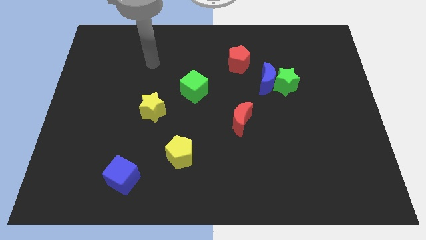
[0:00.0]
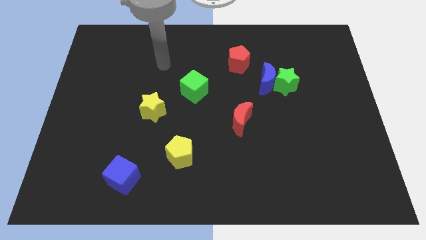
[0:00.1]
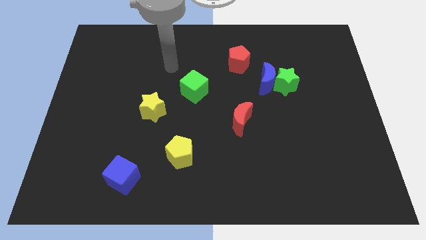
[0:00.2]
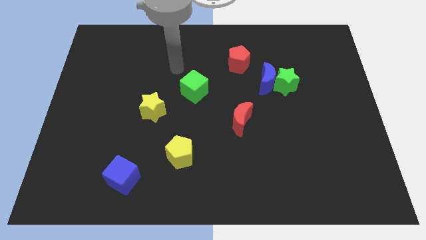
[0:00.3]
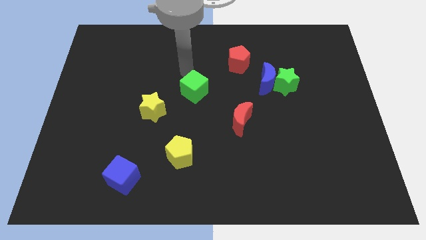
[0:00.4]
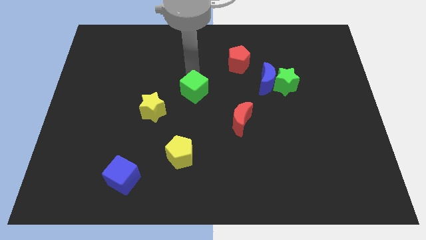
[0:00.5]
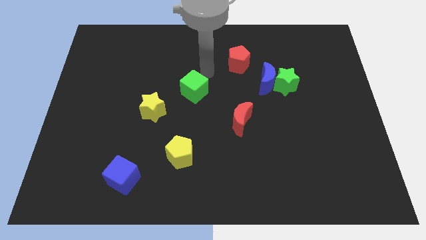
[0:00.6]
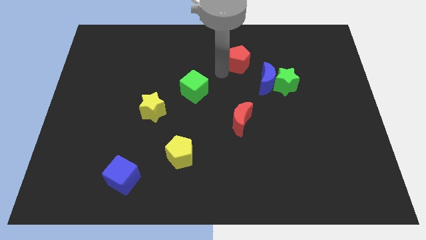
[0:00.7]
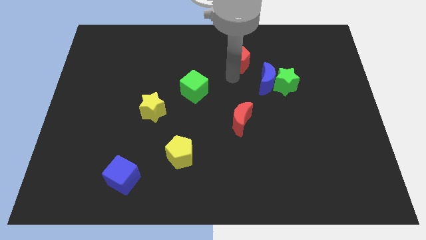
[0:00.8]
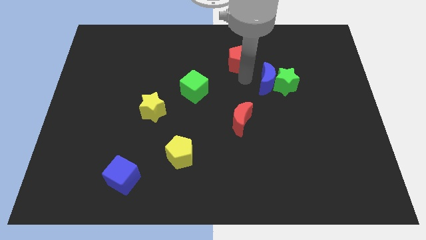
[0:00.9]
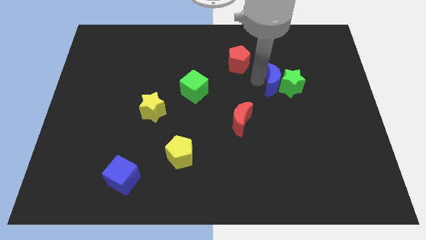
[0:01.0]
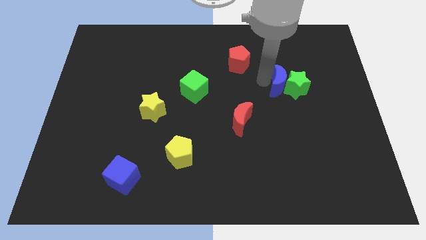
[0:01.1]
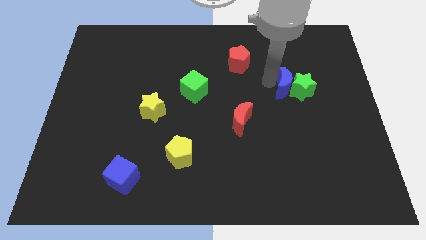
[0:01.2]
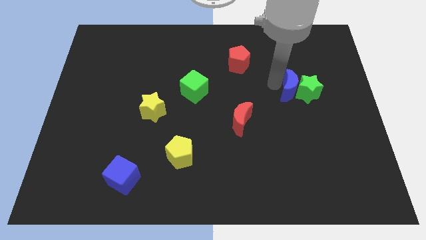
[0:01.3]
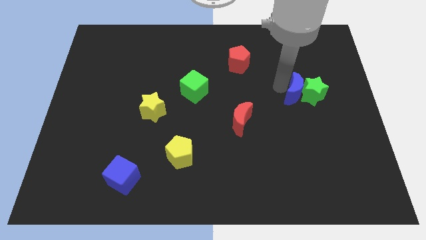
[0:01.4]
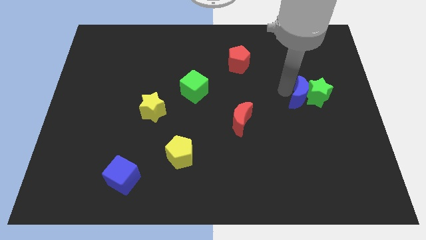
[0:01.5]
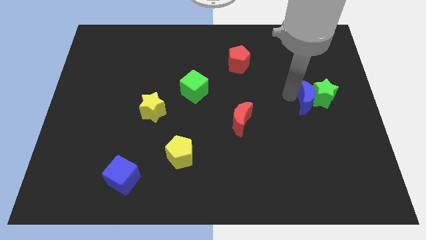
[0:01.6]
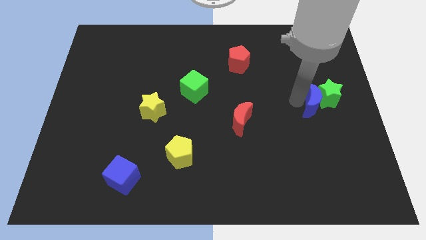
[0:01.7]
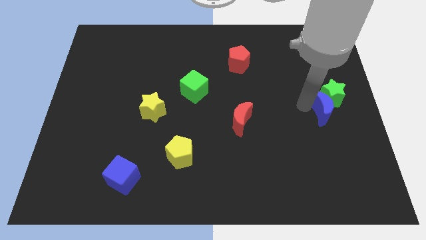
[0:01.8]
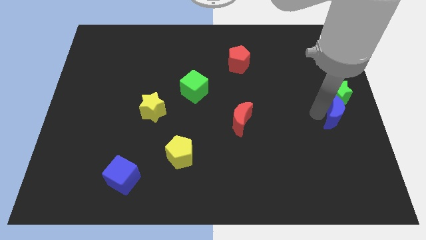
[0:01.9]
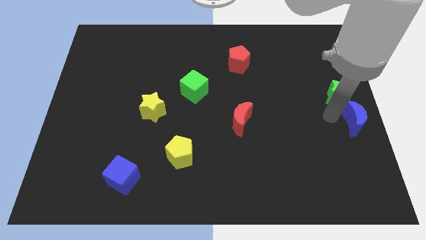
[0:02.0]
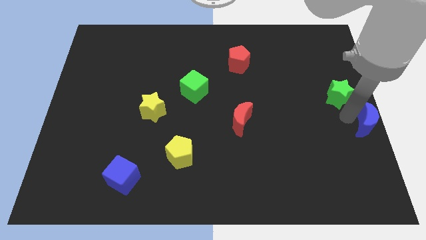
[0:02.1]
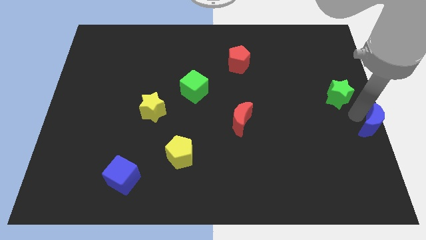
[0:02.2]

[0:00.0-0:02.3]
pull the green star apart from the blue moon

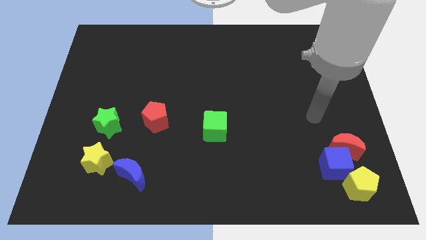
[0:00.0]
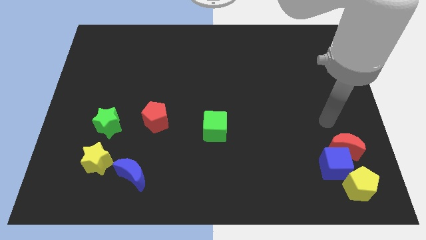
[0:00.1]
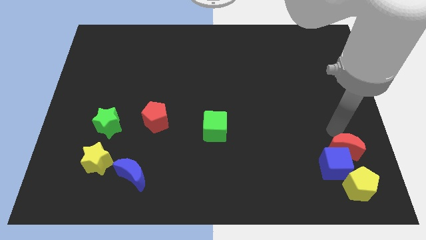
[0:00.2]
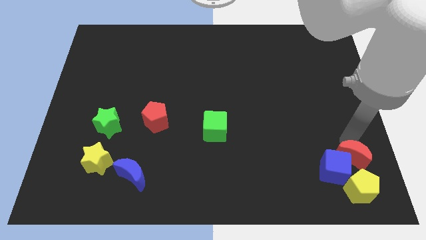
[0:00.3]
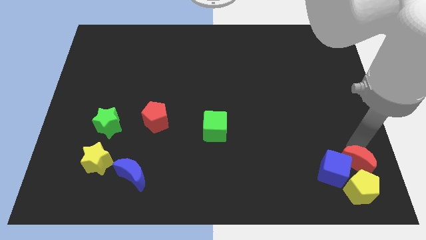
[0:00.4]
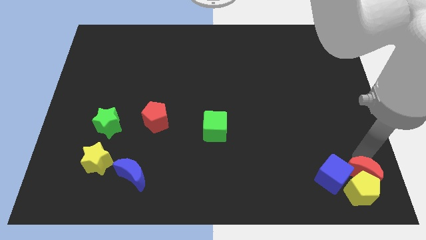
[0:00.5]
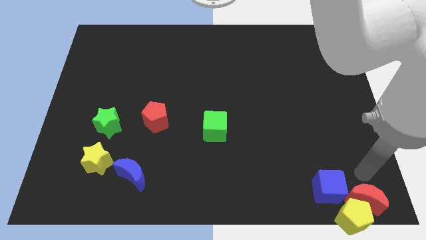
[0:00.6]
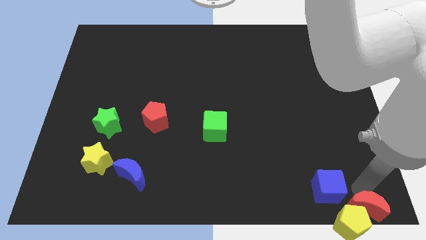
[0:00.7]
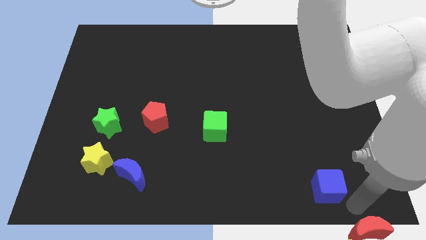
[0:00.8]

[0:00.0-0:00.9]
pull the blue cube apart from the red moon and yellow pentagon

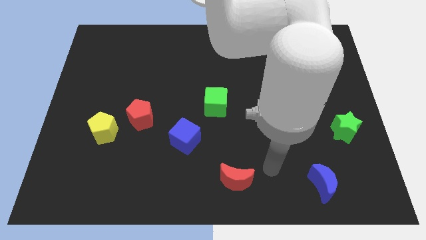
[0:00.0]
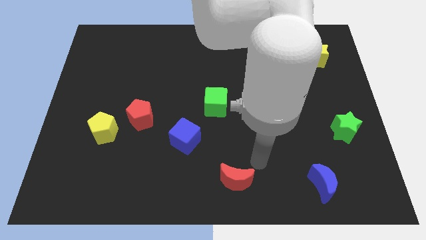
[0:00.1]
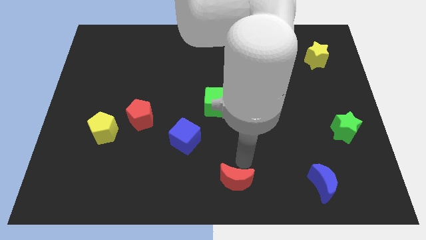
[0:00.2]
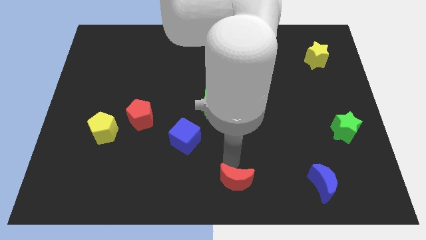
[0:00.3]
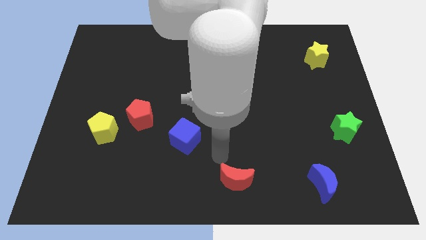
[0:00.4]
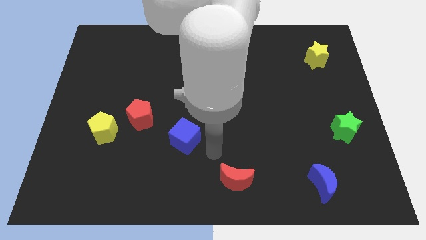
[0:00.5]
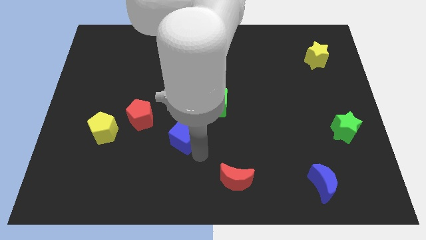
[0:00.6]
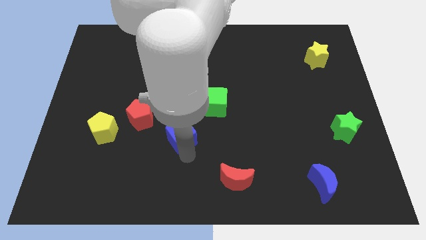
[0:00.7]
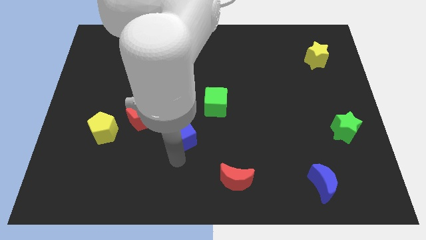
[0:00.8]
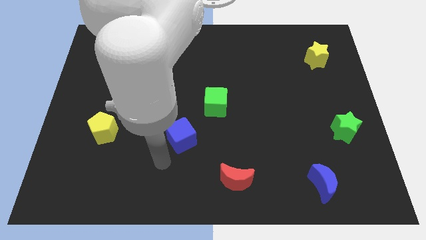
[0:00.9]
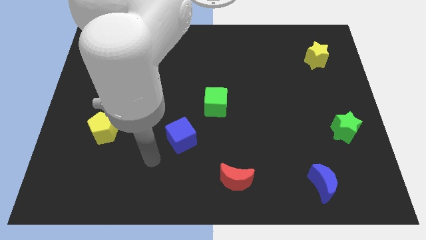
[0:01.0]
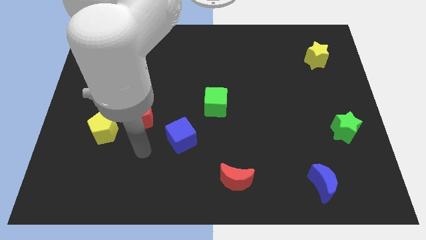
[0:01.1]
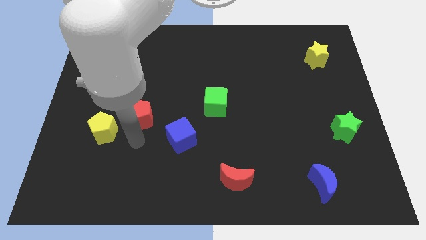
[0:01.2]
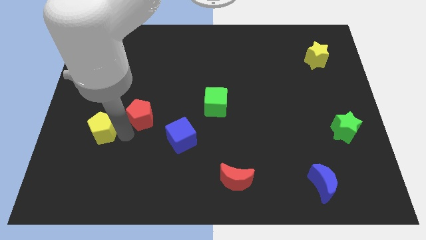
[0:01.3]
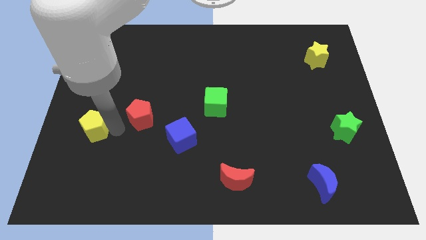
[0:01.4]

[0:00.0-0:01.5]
pull the red pentagon apart from the yellow pentagon

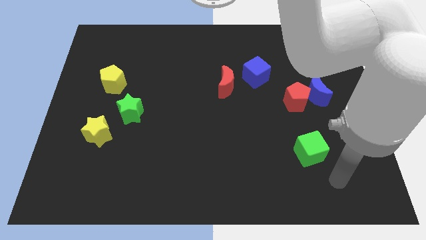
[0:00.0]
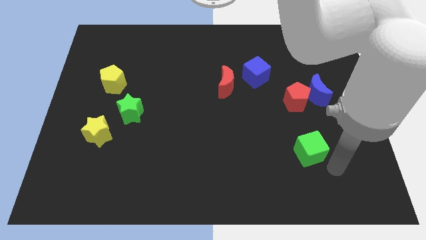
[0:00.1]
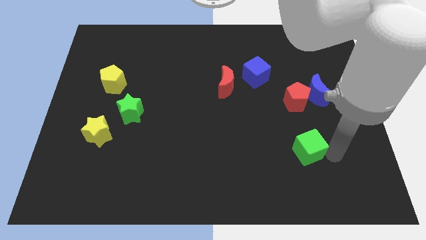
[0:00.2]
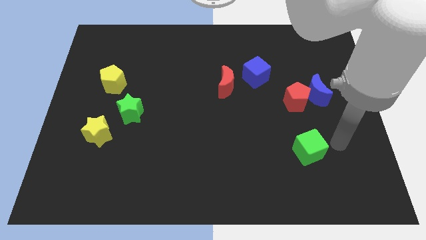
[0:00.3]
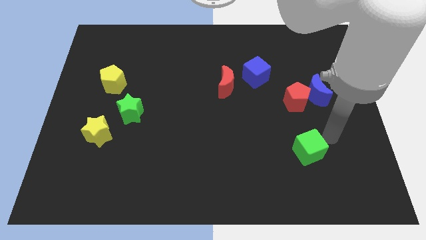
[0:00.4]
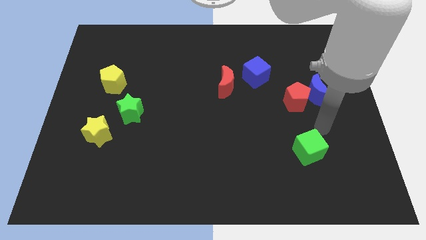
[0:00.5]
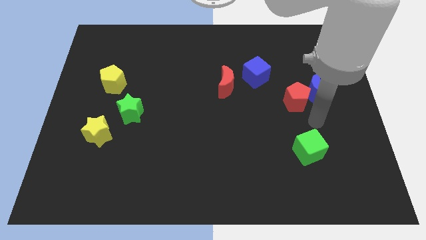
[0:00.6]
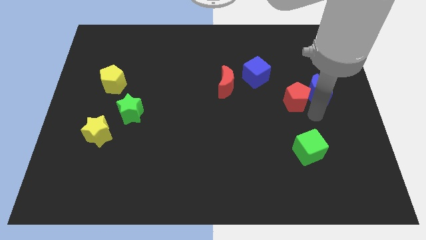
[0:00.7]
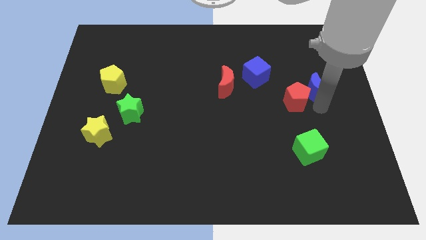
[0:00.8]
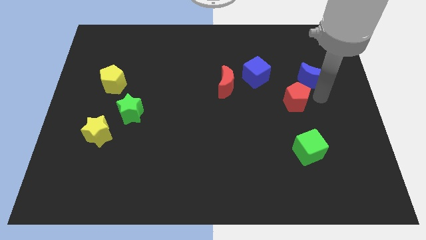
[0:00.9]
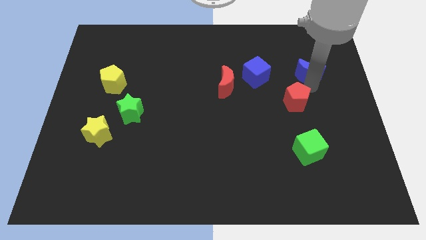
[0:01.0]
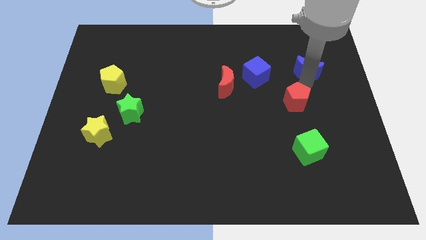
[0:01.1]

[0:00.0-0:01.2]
pull the red pentagon apart from the blue moon

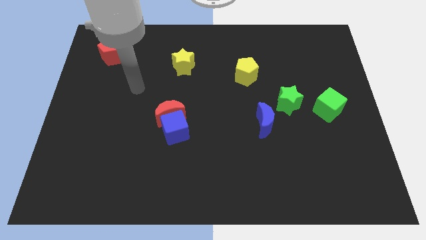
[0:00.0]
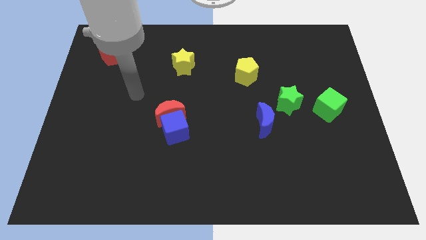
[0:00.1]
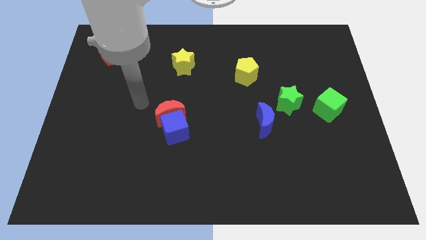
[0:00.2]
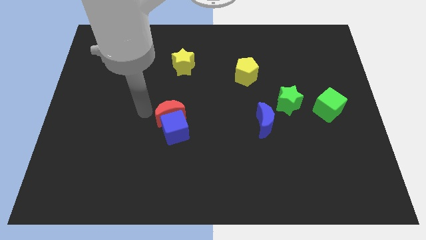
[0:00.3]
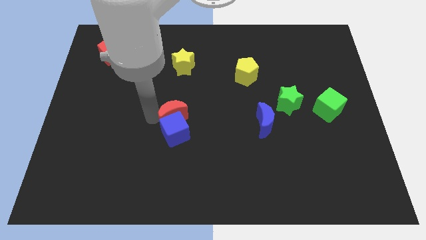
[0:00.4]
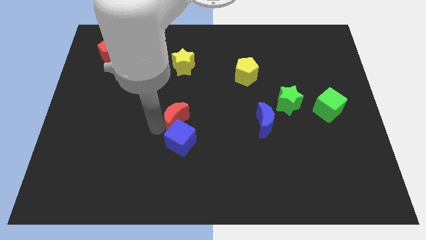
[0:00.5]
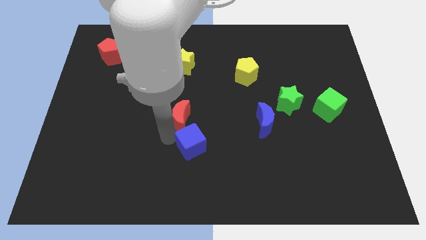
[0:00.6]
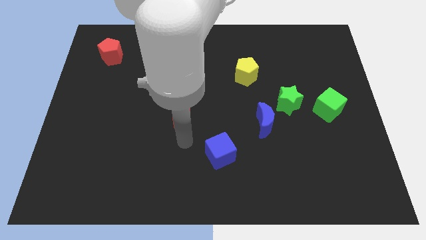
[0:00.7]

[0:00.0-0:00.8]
move the red moon away from the blue cube

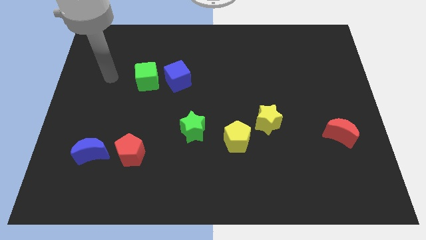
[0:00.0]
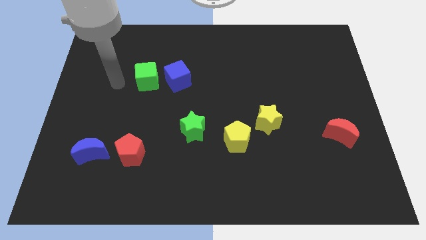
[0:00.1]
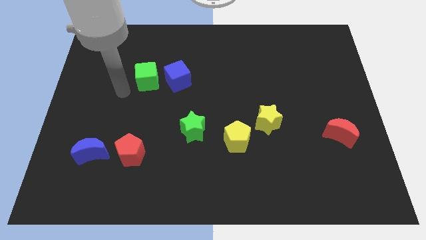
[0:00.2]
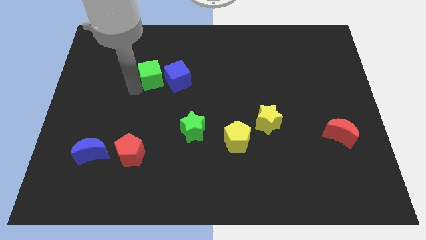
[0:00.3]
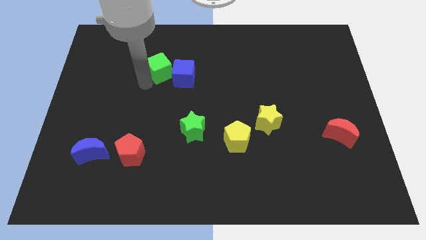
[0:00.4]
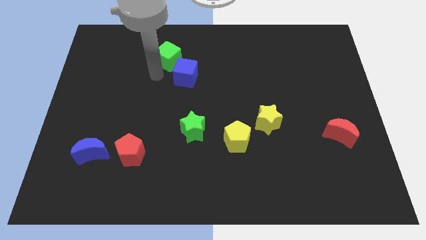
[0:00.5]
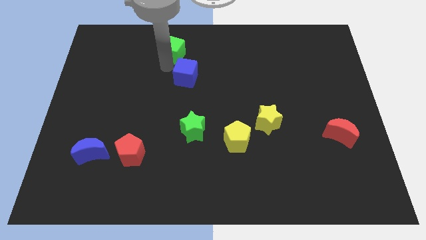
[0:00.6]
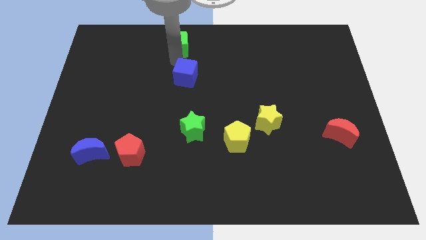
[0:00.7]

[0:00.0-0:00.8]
pull the blue cube apart from the green cube

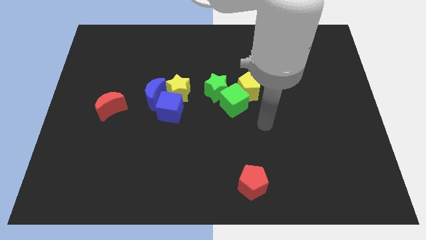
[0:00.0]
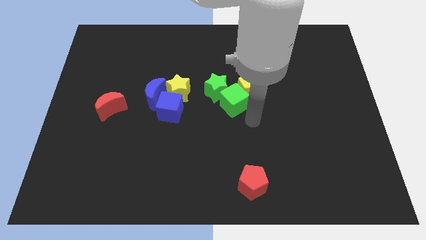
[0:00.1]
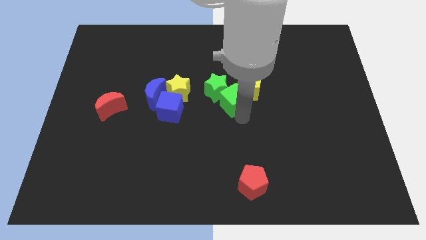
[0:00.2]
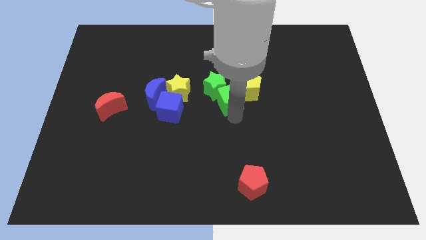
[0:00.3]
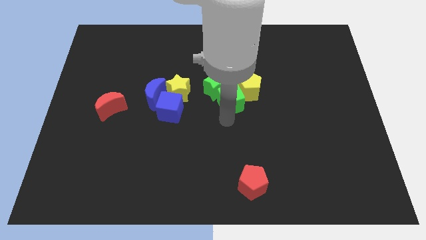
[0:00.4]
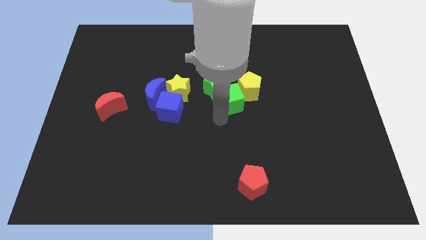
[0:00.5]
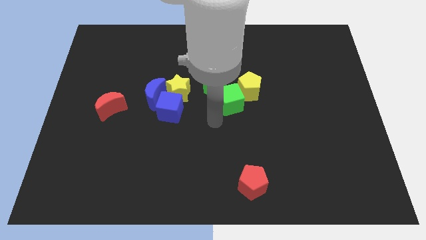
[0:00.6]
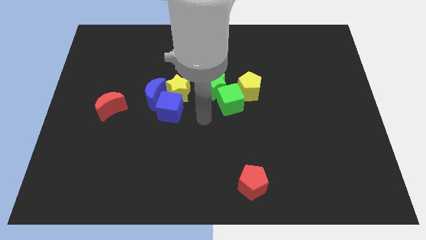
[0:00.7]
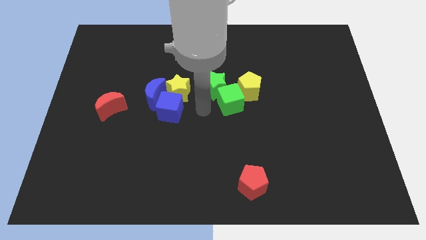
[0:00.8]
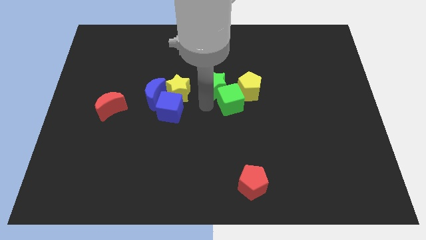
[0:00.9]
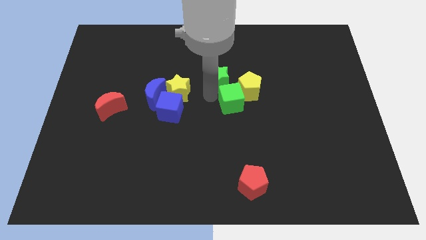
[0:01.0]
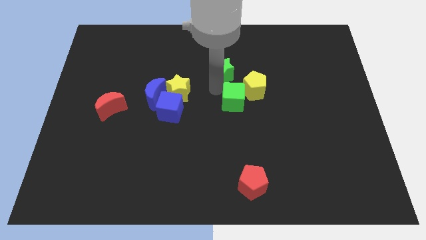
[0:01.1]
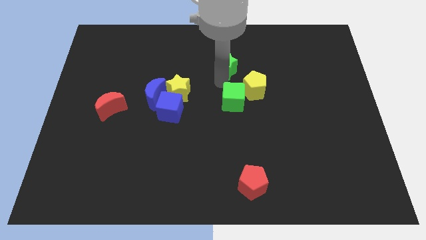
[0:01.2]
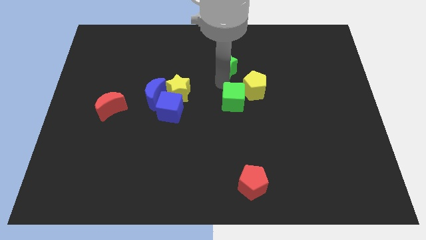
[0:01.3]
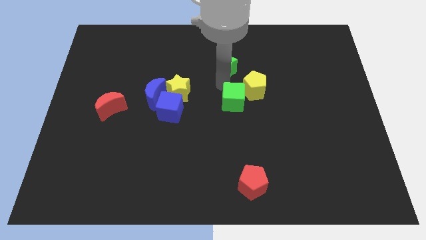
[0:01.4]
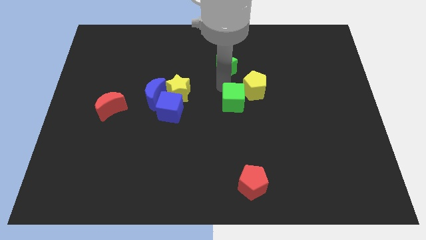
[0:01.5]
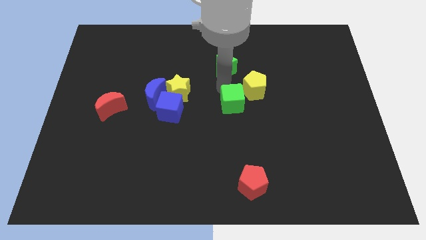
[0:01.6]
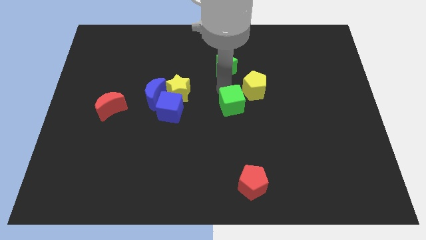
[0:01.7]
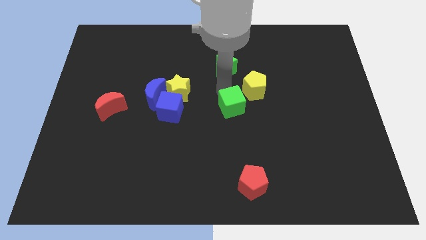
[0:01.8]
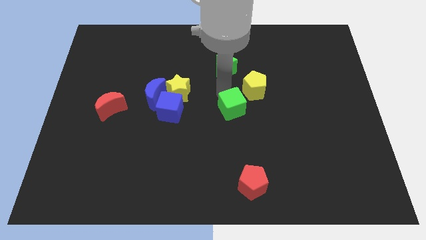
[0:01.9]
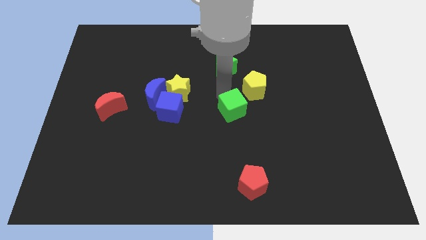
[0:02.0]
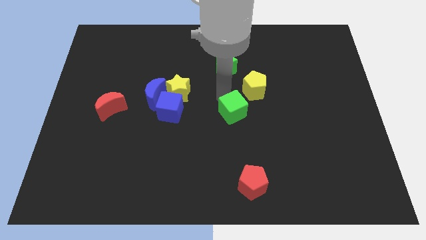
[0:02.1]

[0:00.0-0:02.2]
pull the green cube apart from the green star and yellow pentagon
